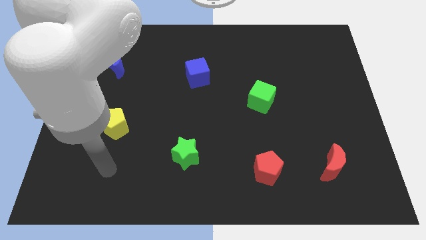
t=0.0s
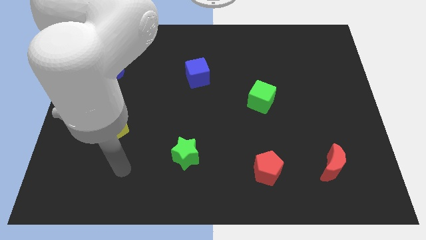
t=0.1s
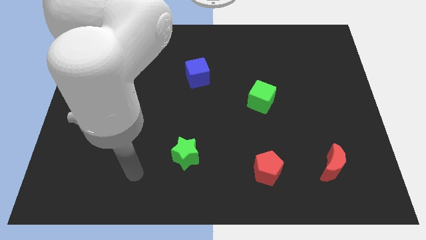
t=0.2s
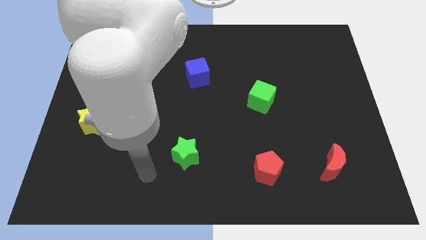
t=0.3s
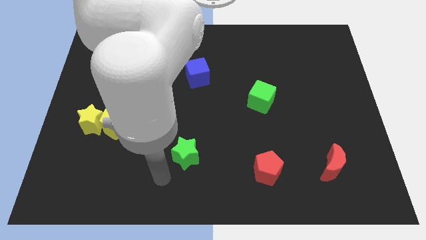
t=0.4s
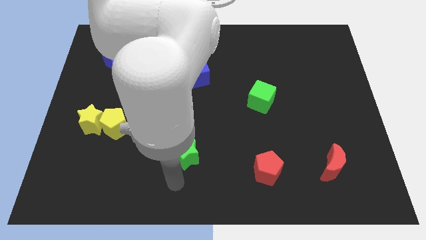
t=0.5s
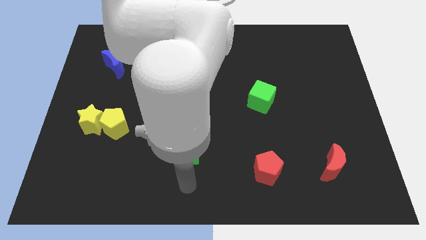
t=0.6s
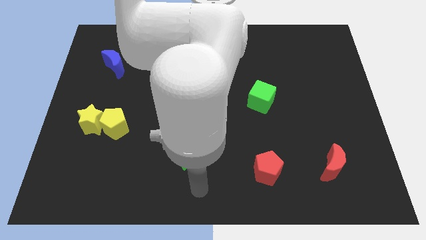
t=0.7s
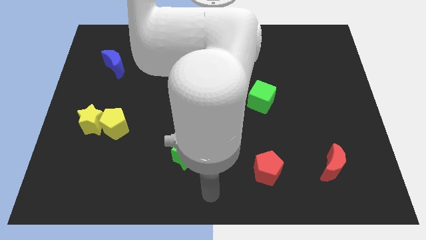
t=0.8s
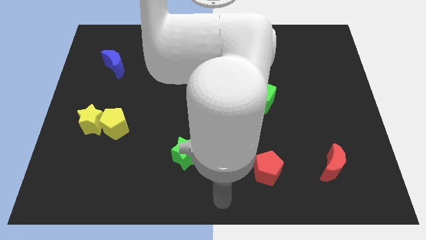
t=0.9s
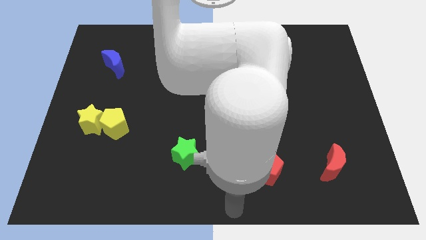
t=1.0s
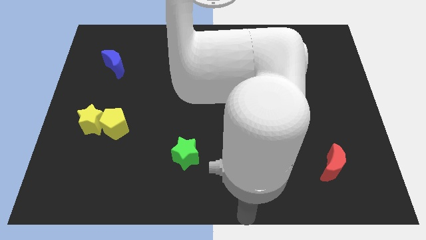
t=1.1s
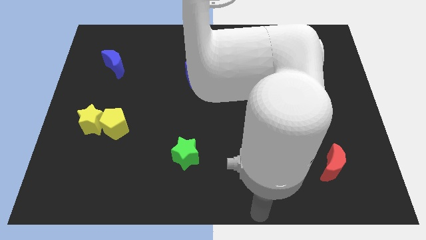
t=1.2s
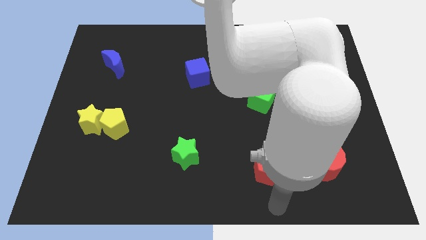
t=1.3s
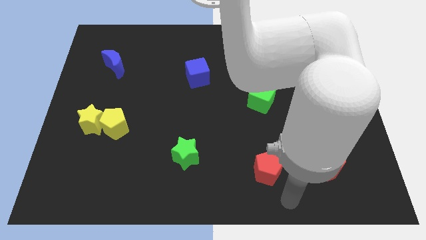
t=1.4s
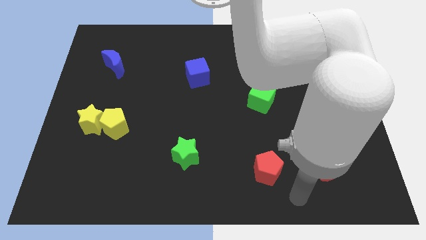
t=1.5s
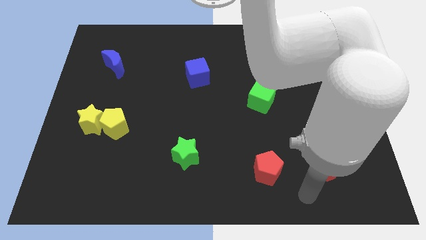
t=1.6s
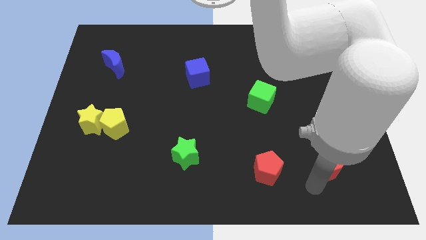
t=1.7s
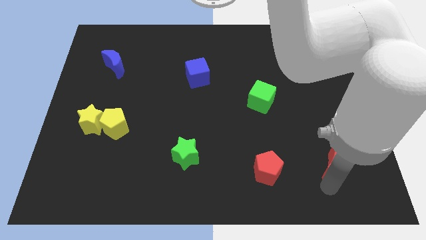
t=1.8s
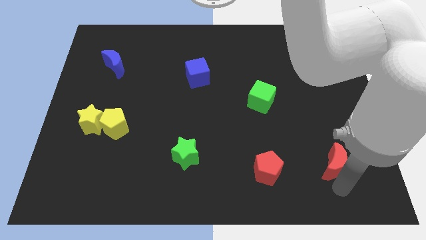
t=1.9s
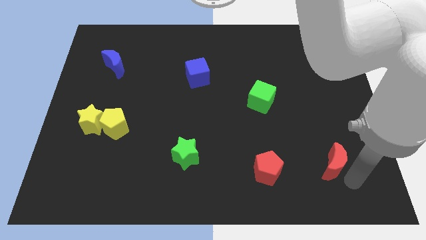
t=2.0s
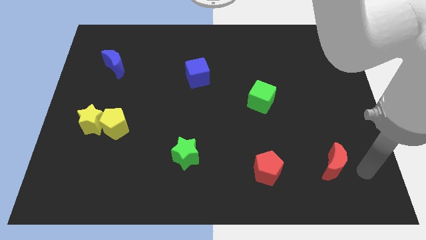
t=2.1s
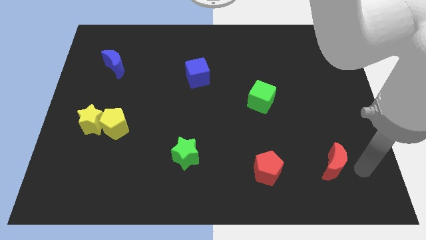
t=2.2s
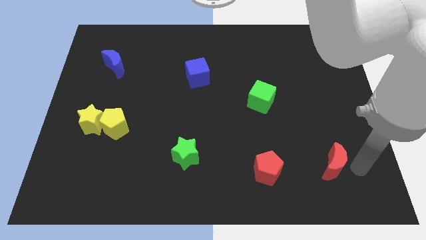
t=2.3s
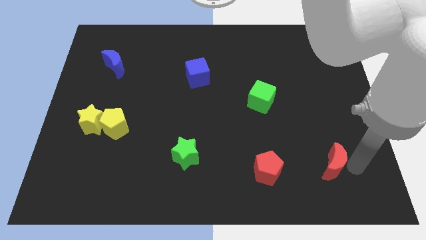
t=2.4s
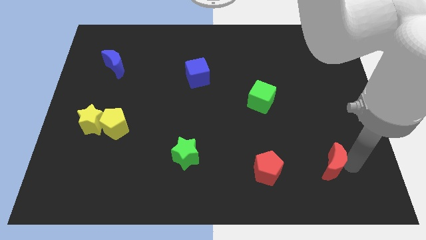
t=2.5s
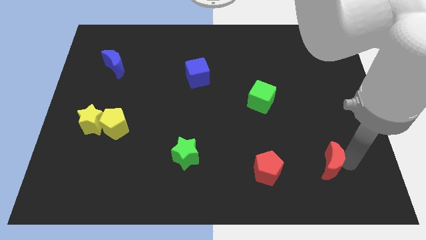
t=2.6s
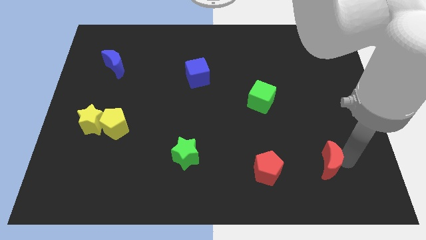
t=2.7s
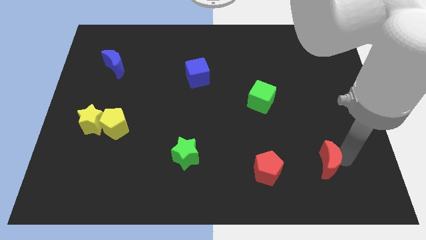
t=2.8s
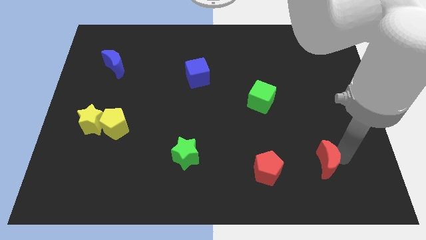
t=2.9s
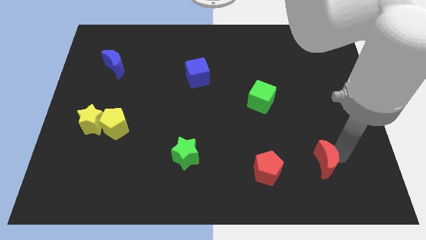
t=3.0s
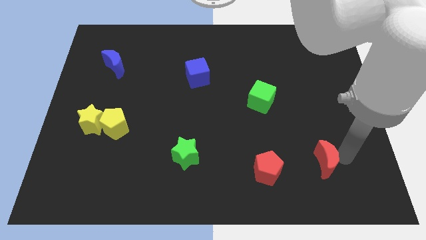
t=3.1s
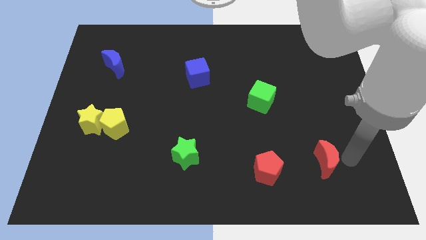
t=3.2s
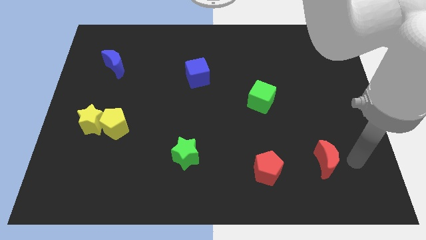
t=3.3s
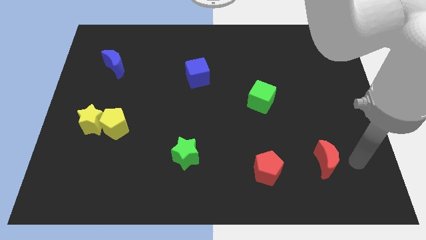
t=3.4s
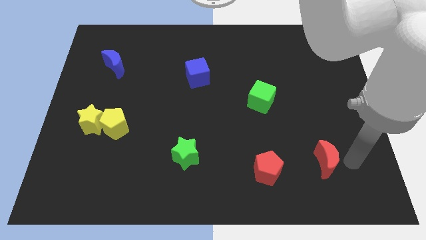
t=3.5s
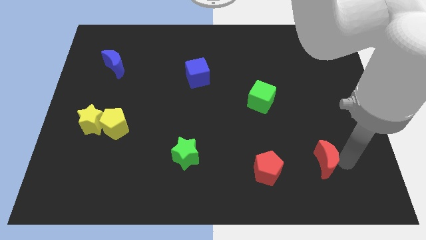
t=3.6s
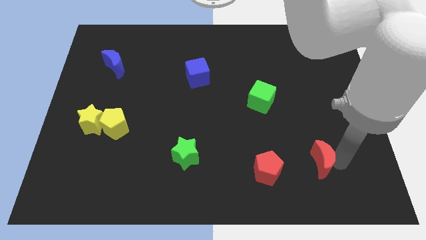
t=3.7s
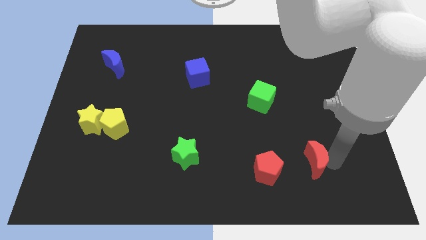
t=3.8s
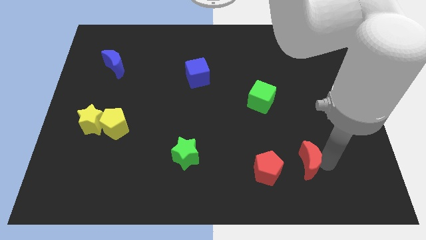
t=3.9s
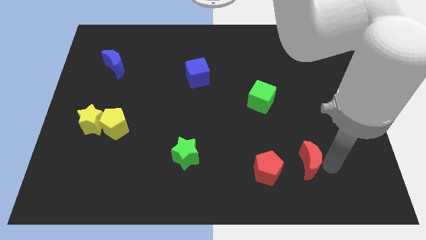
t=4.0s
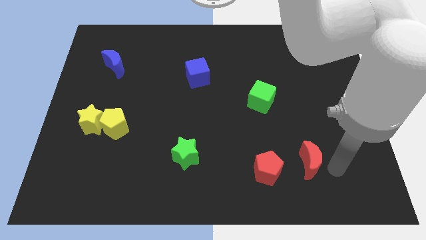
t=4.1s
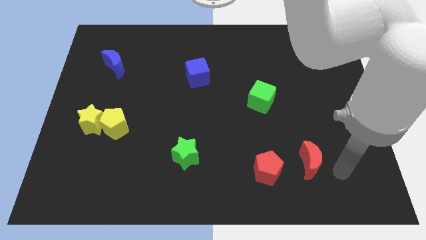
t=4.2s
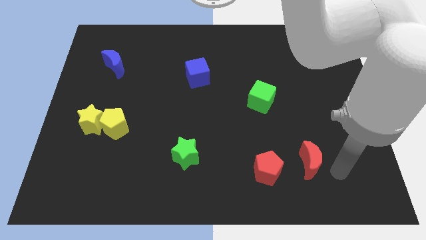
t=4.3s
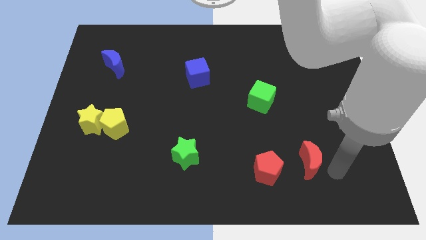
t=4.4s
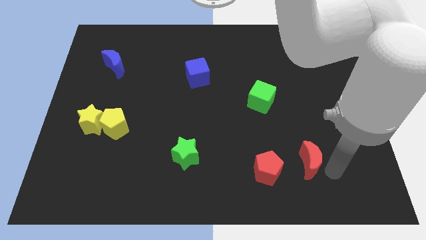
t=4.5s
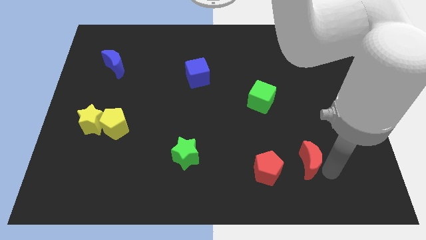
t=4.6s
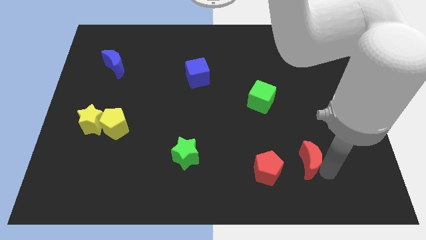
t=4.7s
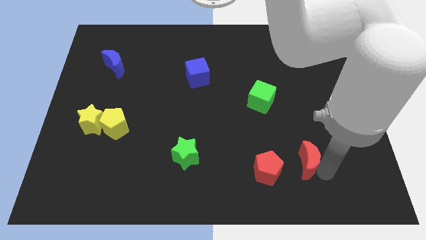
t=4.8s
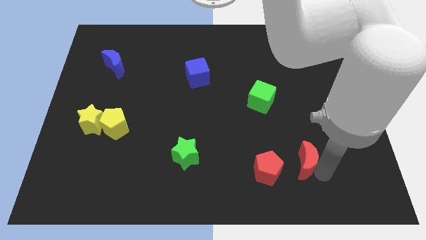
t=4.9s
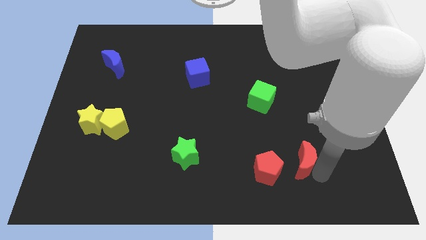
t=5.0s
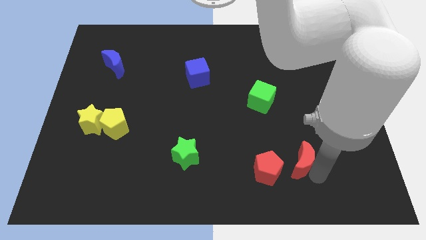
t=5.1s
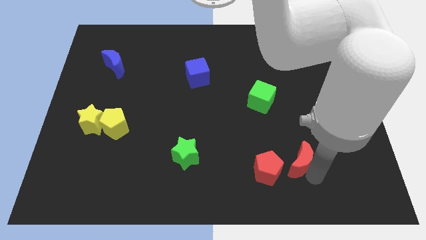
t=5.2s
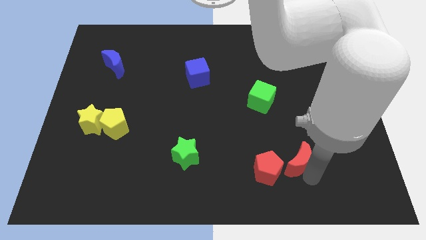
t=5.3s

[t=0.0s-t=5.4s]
slightly move the red moon left

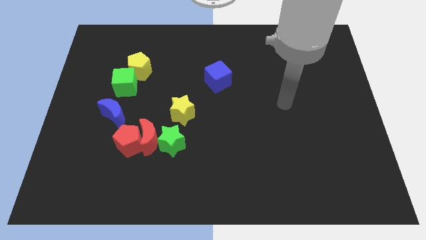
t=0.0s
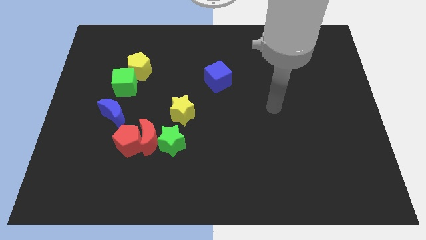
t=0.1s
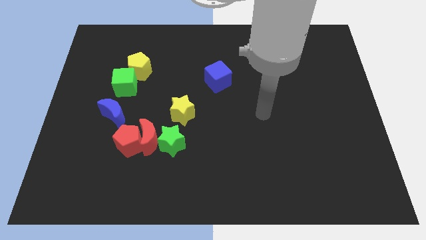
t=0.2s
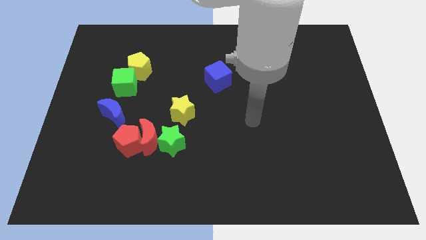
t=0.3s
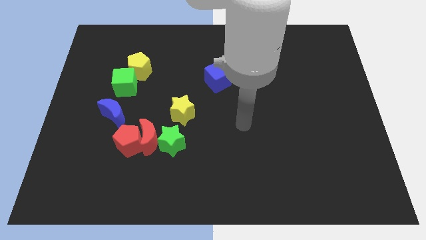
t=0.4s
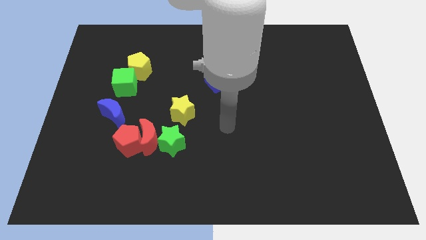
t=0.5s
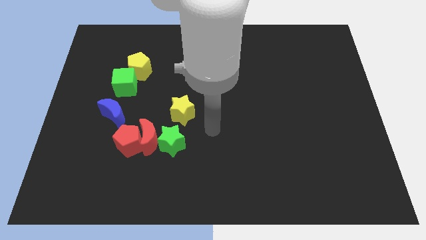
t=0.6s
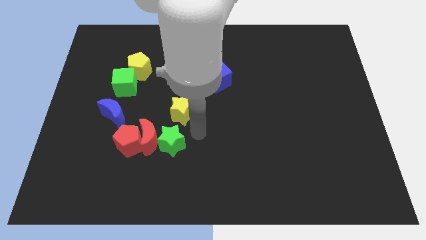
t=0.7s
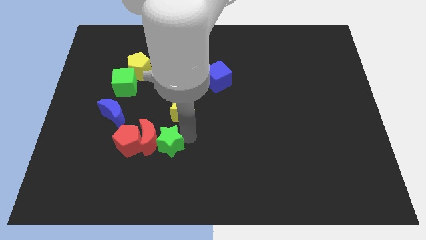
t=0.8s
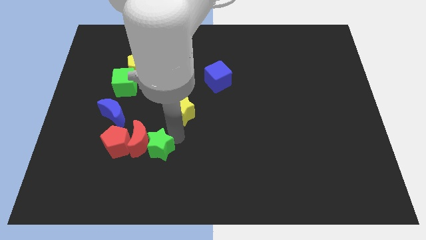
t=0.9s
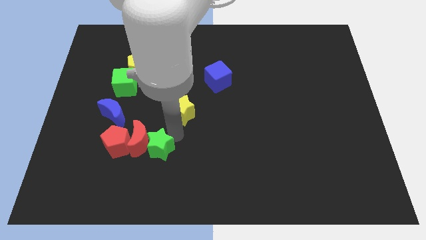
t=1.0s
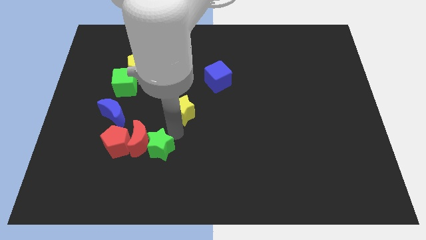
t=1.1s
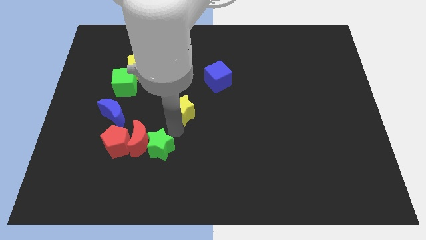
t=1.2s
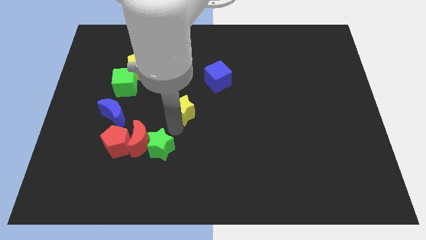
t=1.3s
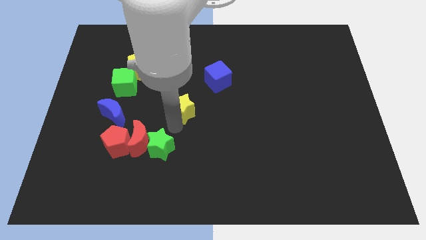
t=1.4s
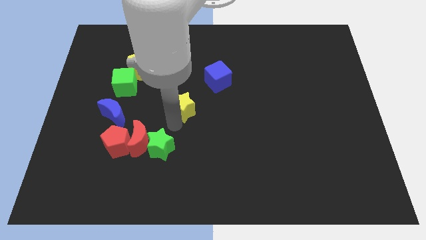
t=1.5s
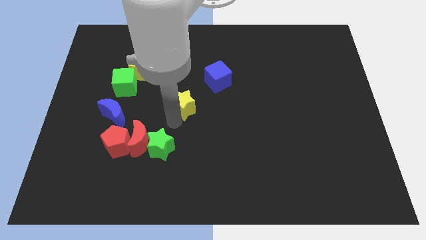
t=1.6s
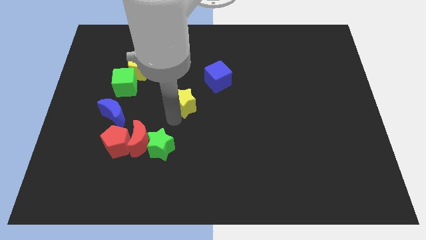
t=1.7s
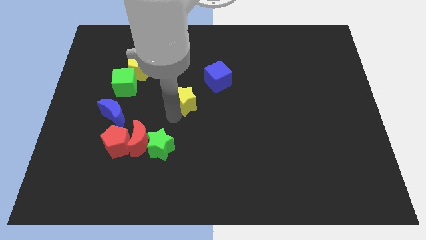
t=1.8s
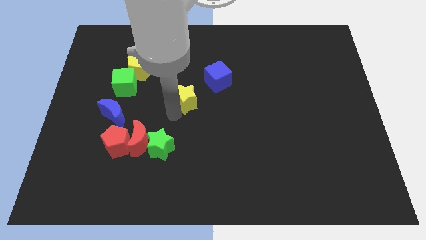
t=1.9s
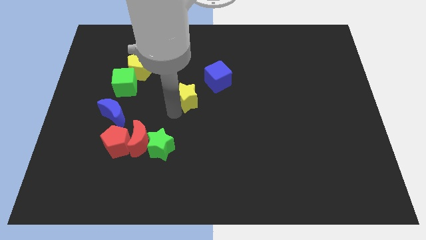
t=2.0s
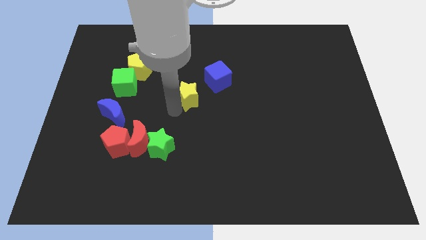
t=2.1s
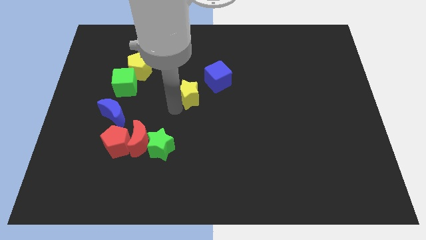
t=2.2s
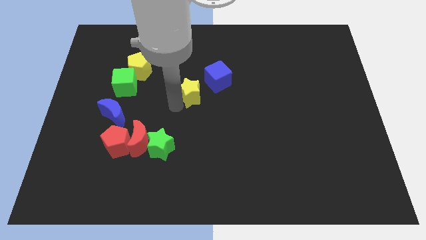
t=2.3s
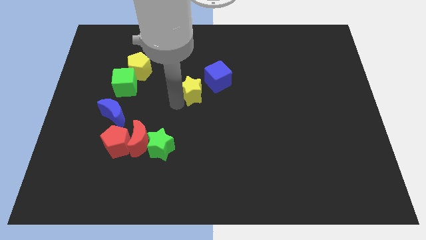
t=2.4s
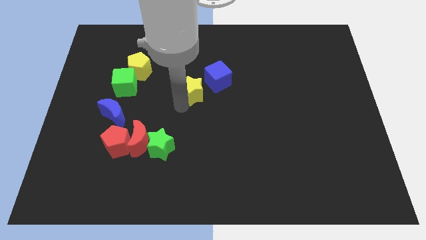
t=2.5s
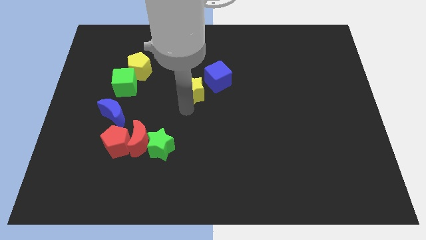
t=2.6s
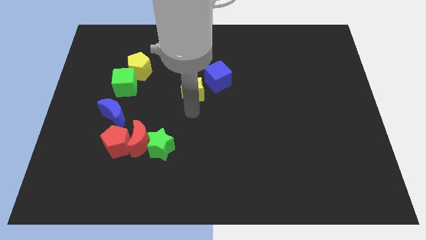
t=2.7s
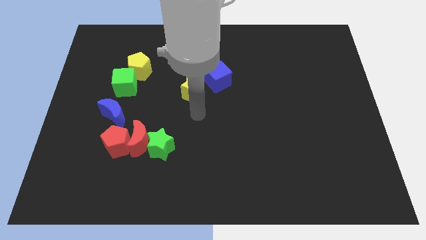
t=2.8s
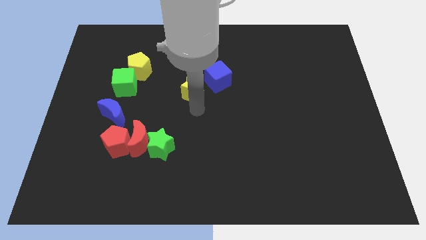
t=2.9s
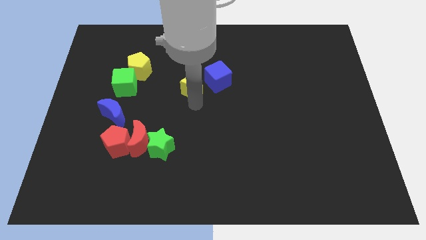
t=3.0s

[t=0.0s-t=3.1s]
push the yellow star slightly up
